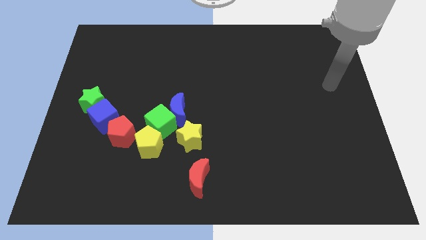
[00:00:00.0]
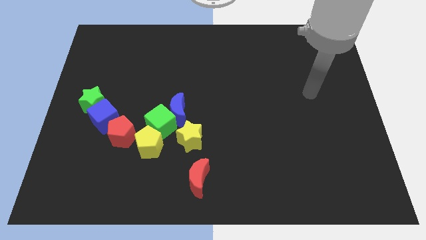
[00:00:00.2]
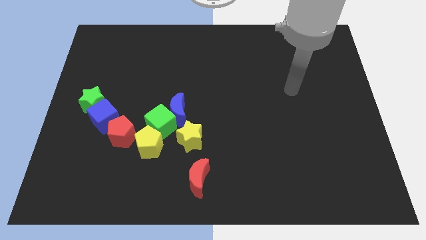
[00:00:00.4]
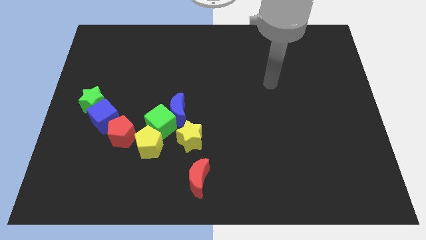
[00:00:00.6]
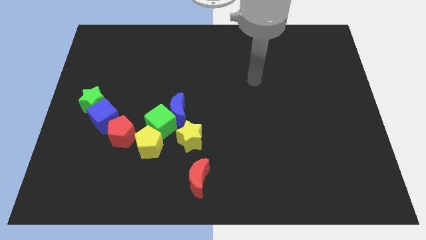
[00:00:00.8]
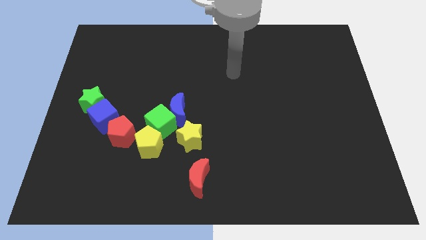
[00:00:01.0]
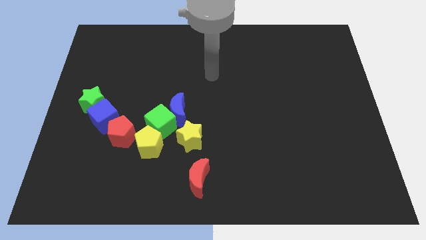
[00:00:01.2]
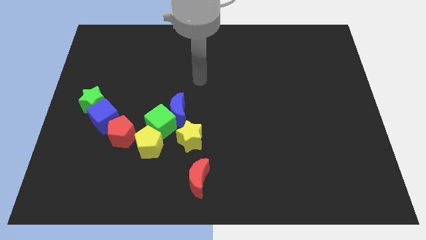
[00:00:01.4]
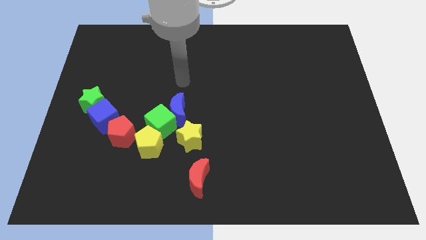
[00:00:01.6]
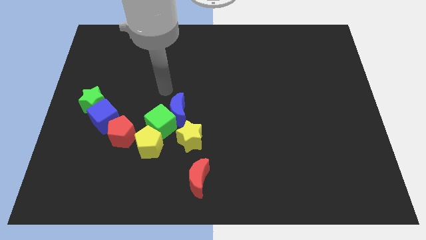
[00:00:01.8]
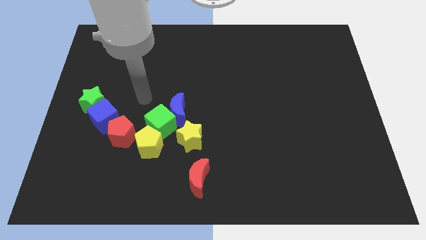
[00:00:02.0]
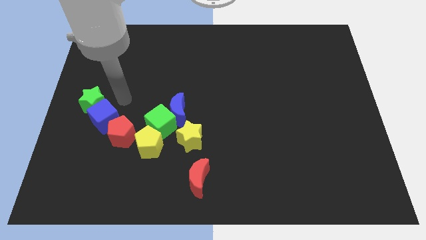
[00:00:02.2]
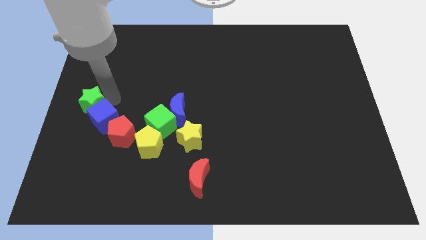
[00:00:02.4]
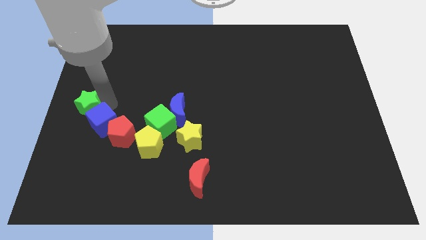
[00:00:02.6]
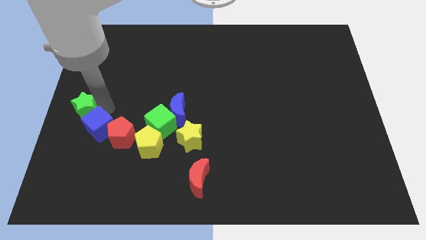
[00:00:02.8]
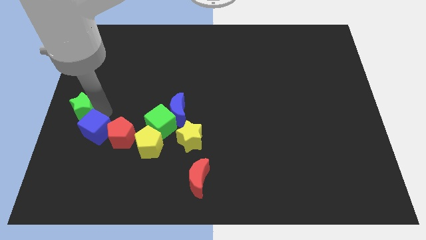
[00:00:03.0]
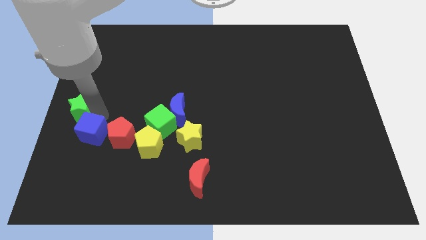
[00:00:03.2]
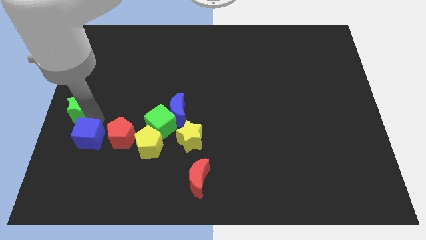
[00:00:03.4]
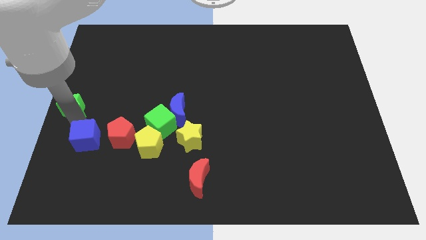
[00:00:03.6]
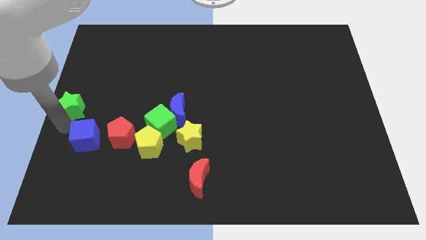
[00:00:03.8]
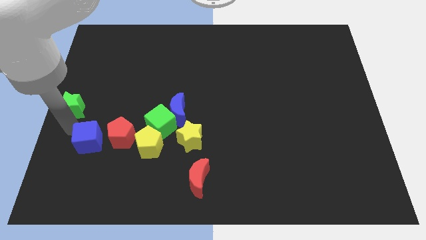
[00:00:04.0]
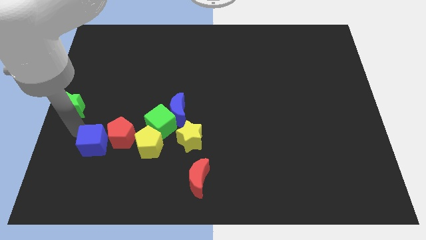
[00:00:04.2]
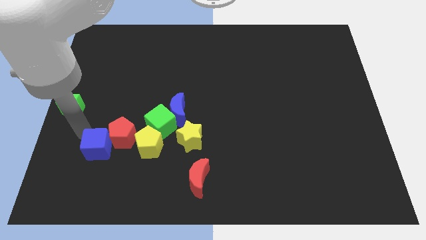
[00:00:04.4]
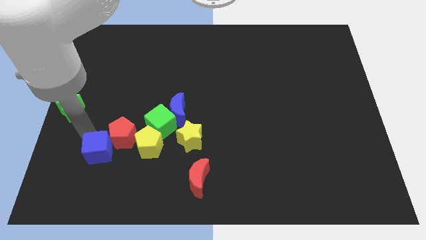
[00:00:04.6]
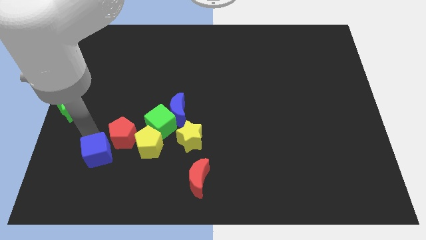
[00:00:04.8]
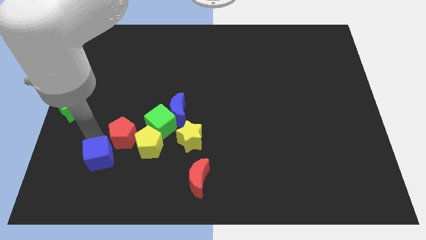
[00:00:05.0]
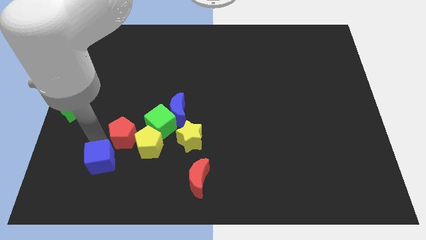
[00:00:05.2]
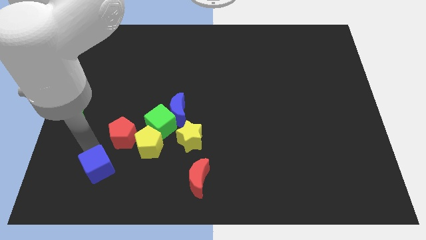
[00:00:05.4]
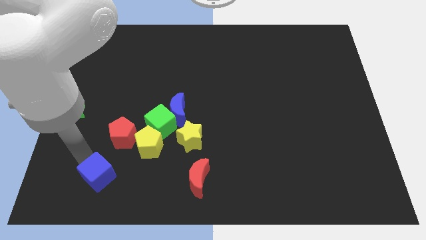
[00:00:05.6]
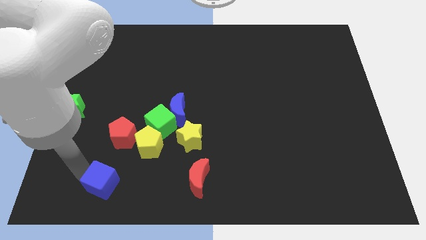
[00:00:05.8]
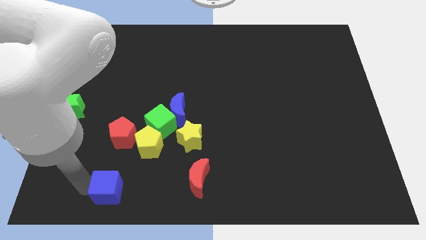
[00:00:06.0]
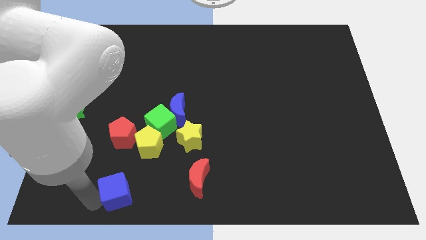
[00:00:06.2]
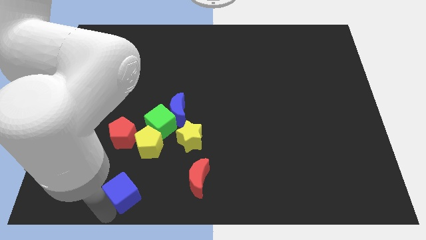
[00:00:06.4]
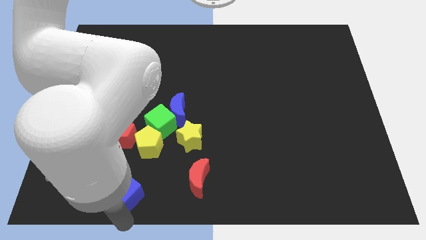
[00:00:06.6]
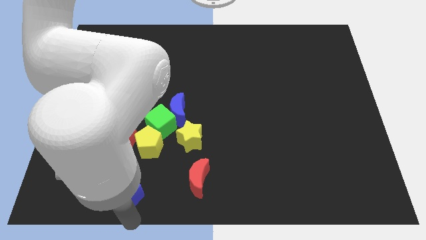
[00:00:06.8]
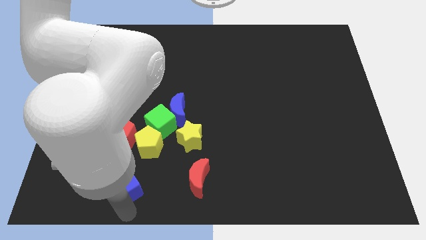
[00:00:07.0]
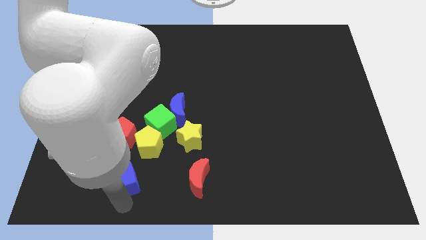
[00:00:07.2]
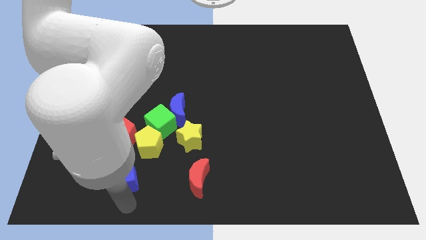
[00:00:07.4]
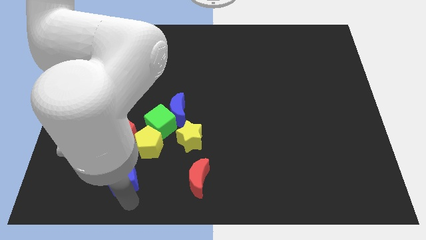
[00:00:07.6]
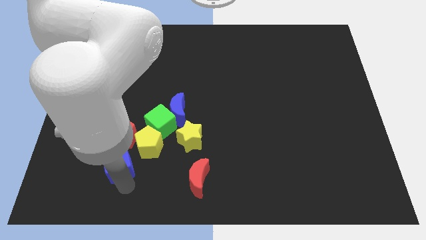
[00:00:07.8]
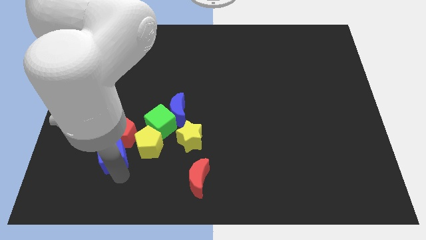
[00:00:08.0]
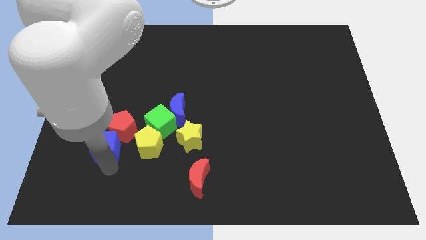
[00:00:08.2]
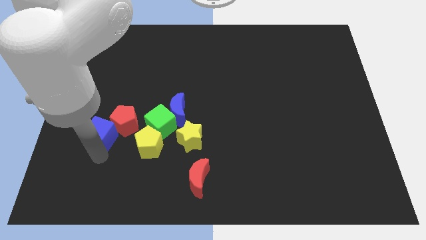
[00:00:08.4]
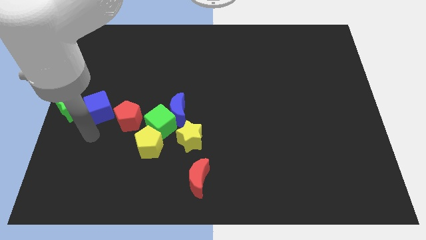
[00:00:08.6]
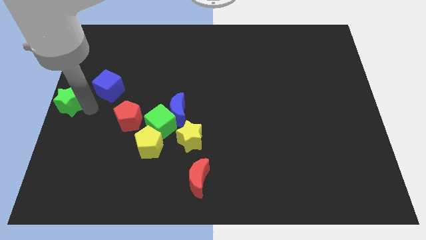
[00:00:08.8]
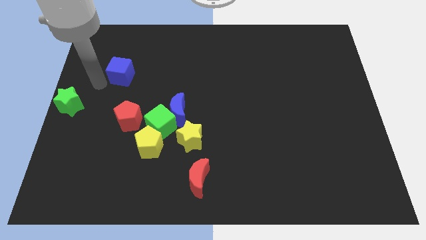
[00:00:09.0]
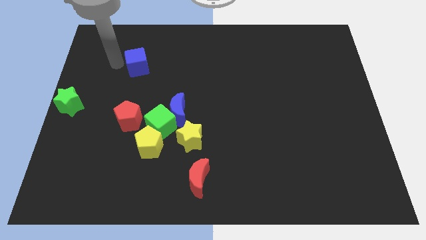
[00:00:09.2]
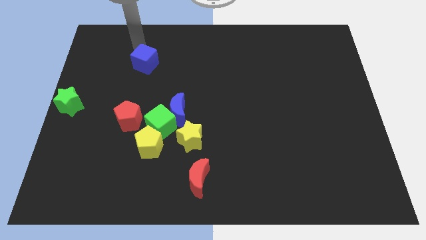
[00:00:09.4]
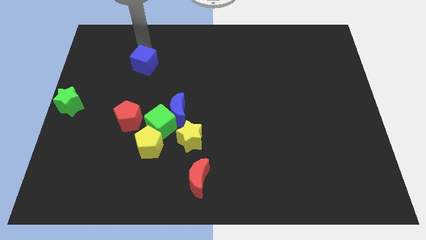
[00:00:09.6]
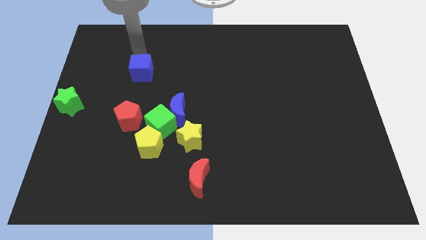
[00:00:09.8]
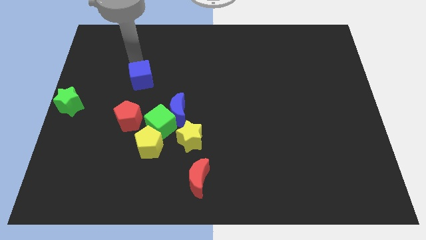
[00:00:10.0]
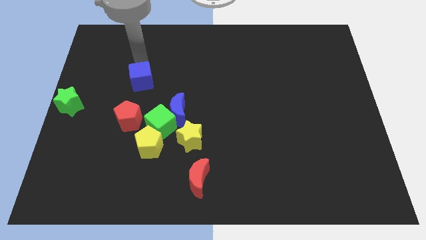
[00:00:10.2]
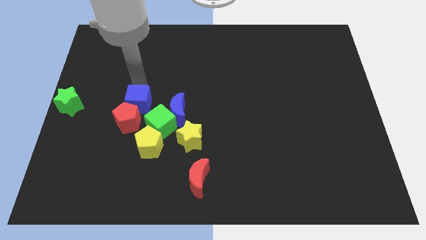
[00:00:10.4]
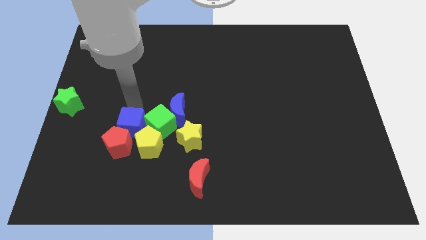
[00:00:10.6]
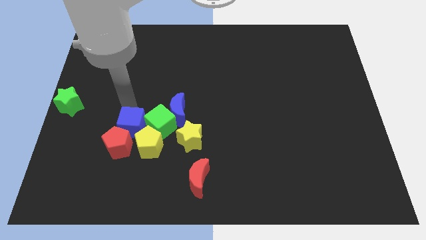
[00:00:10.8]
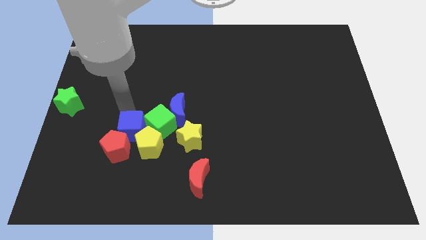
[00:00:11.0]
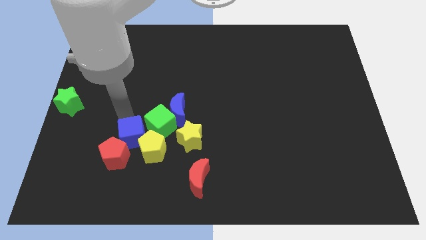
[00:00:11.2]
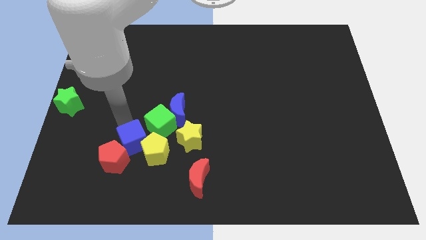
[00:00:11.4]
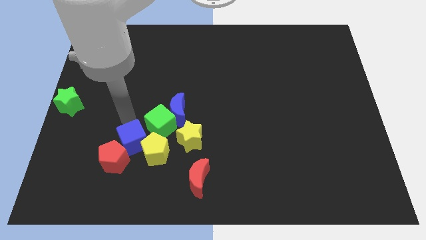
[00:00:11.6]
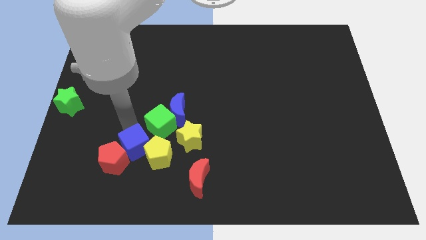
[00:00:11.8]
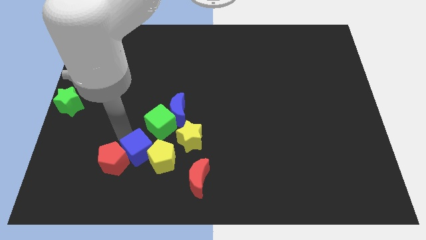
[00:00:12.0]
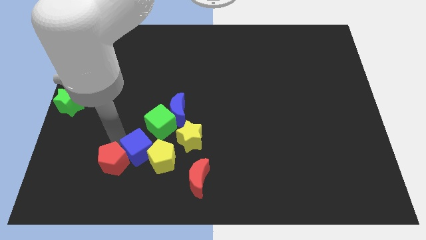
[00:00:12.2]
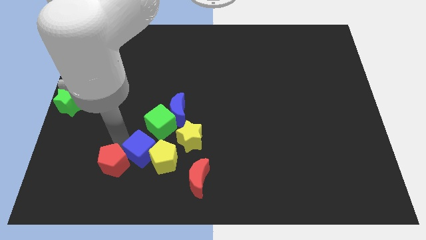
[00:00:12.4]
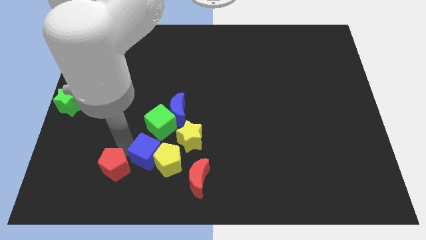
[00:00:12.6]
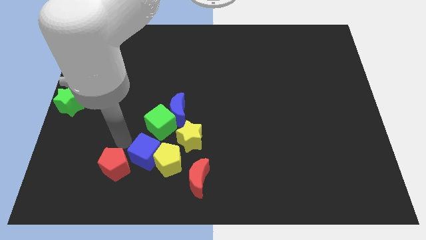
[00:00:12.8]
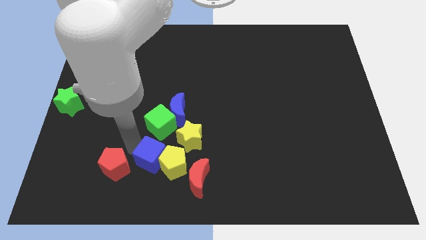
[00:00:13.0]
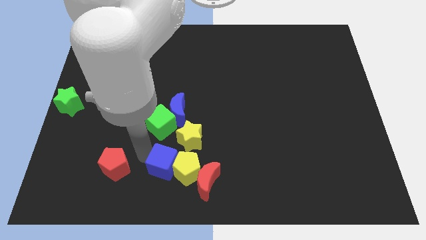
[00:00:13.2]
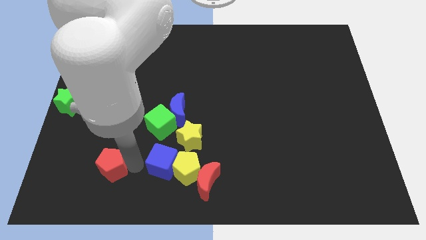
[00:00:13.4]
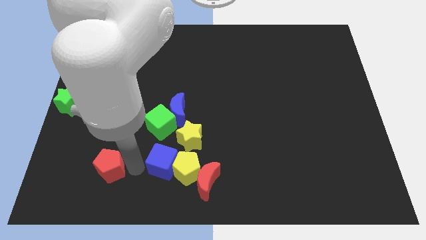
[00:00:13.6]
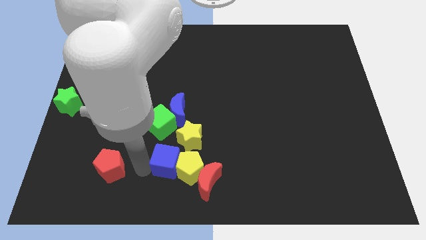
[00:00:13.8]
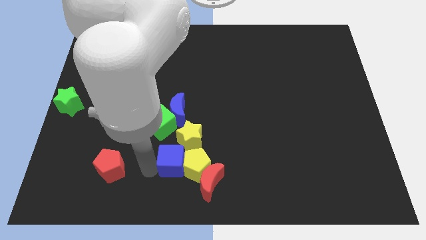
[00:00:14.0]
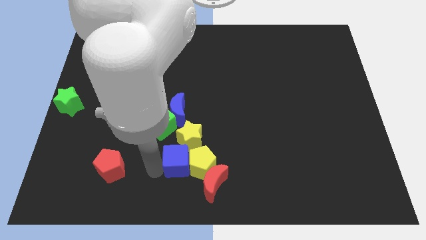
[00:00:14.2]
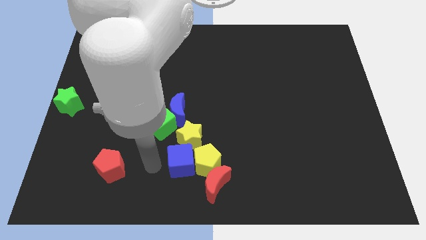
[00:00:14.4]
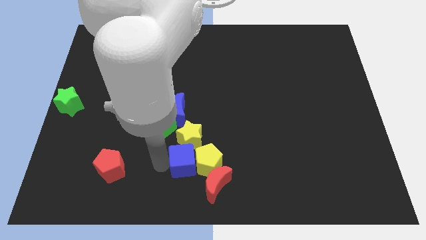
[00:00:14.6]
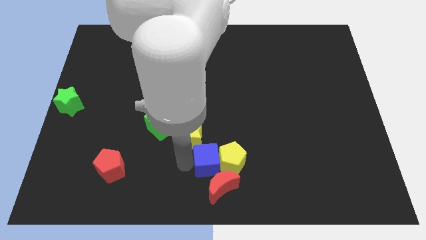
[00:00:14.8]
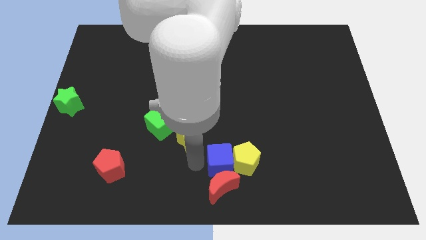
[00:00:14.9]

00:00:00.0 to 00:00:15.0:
move the blue cube to the top right side of the red moon
